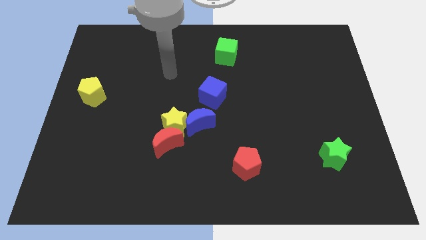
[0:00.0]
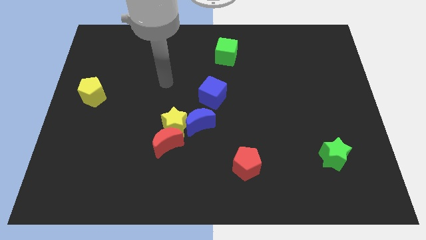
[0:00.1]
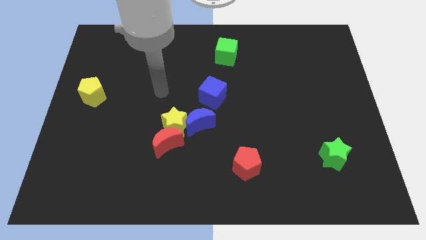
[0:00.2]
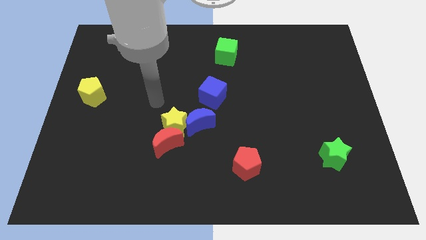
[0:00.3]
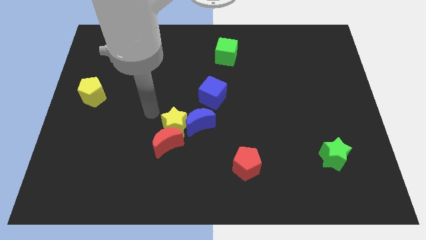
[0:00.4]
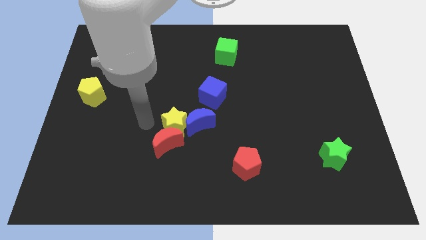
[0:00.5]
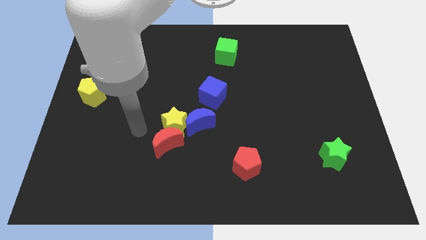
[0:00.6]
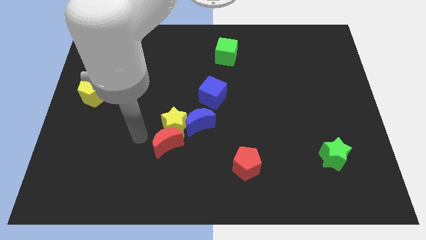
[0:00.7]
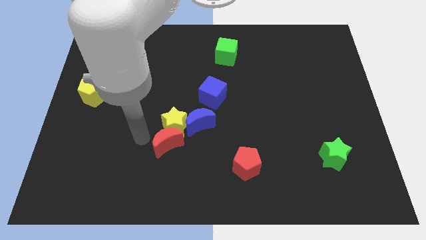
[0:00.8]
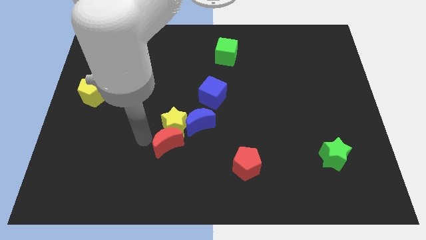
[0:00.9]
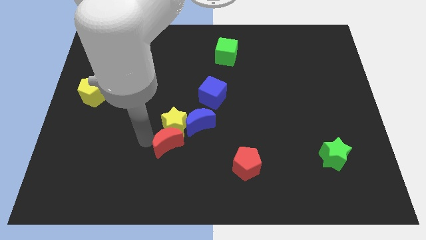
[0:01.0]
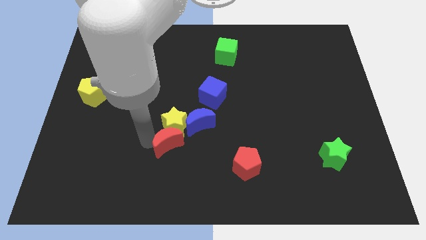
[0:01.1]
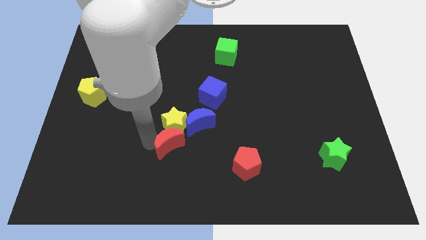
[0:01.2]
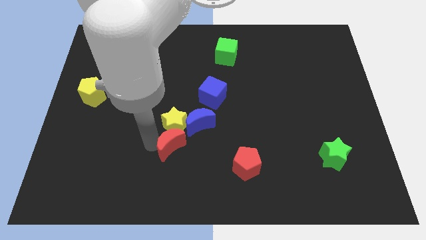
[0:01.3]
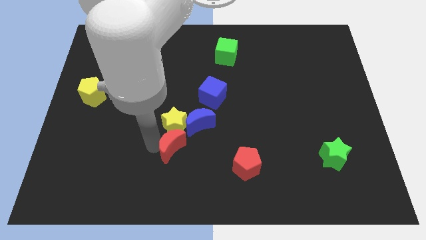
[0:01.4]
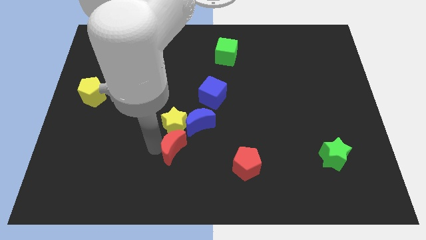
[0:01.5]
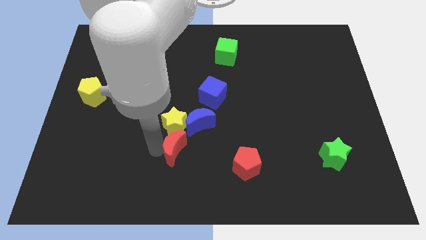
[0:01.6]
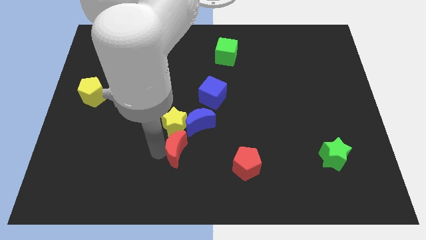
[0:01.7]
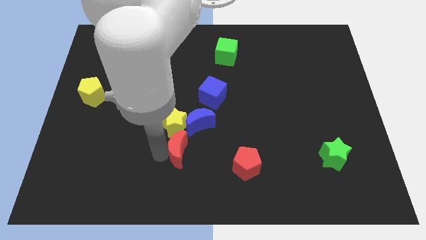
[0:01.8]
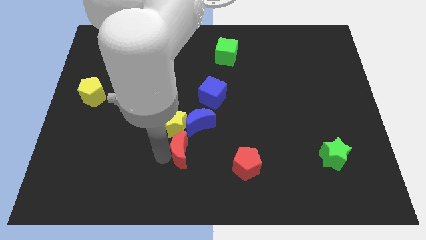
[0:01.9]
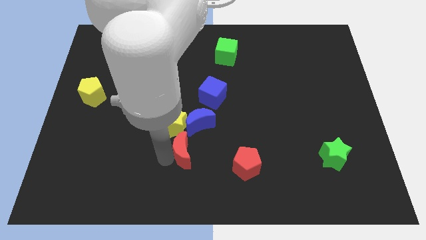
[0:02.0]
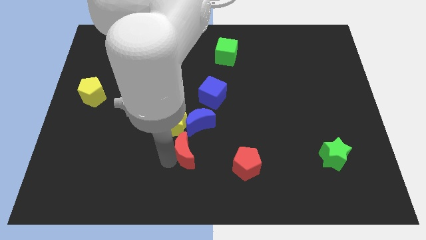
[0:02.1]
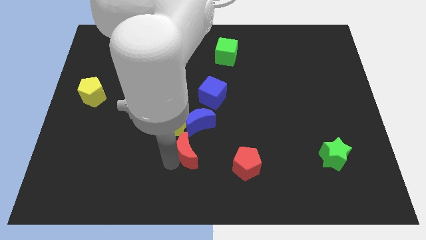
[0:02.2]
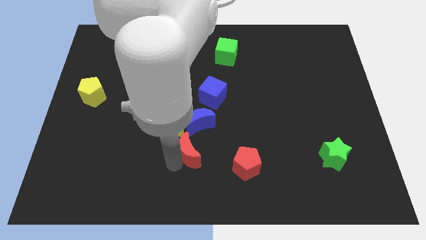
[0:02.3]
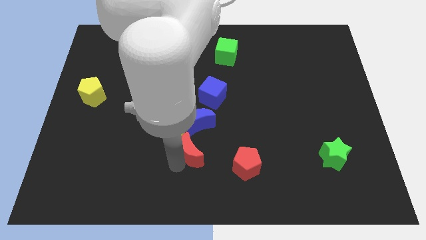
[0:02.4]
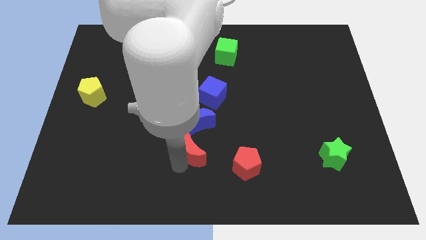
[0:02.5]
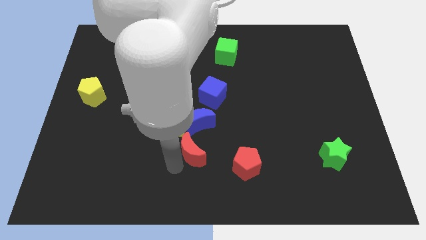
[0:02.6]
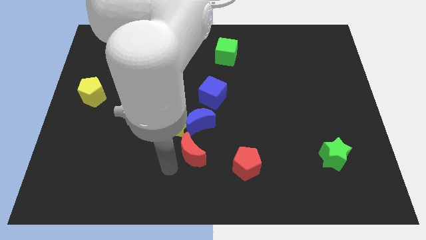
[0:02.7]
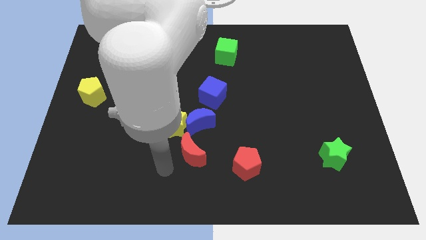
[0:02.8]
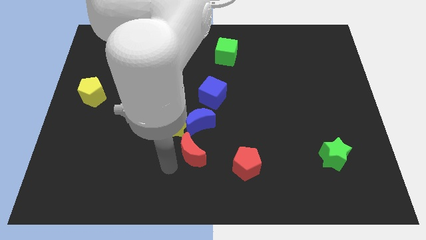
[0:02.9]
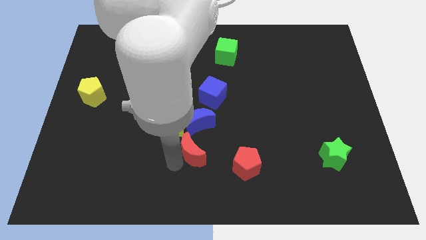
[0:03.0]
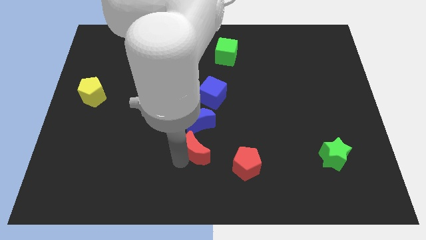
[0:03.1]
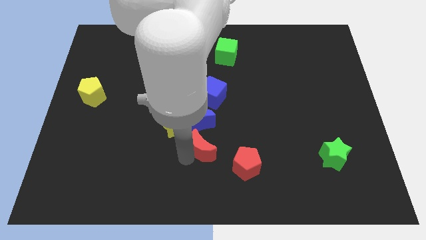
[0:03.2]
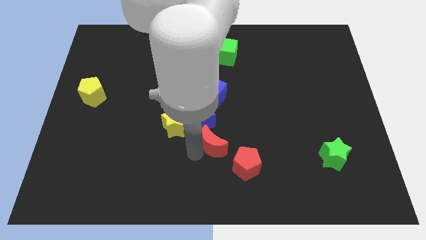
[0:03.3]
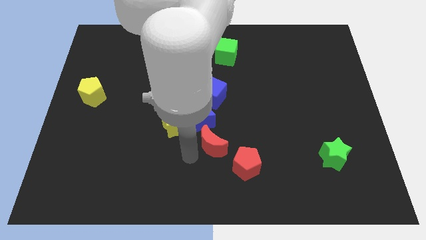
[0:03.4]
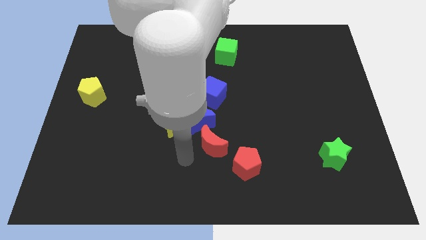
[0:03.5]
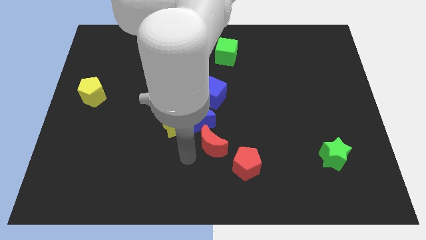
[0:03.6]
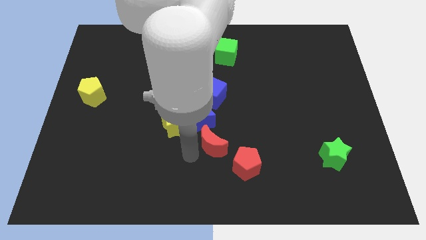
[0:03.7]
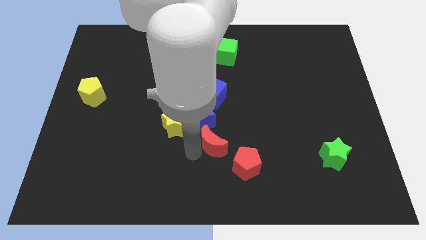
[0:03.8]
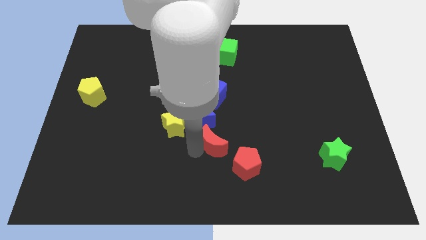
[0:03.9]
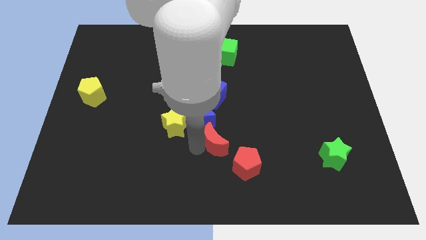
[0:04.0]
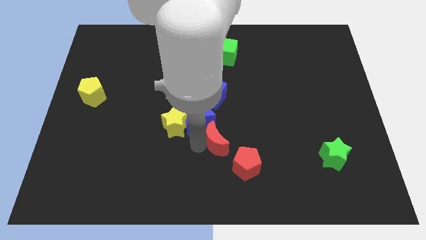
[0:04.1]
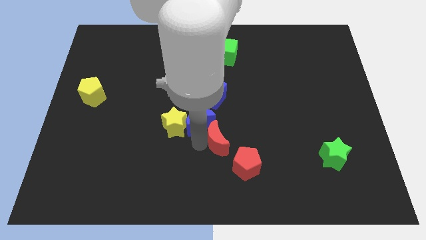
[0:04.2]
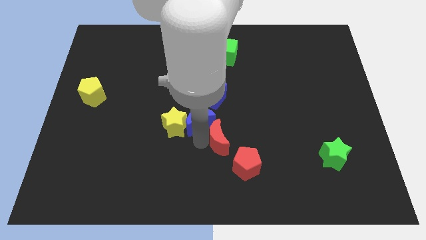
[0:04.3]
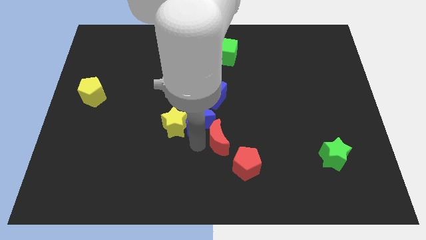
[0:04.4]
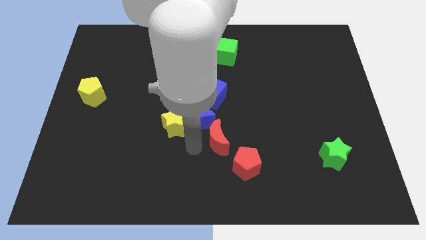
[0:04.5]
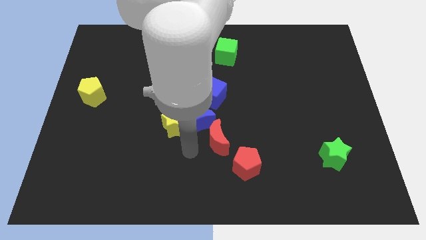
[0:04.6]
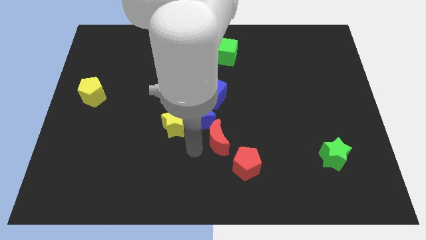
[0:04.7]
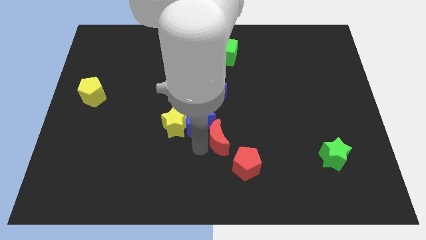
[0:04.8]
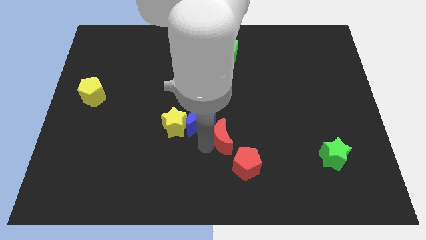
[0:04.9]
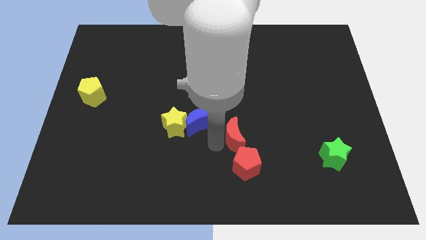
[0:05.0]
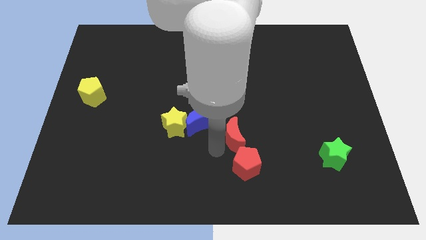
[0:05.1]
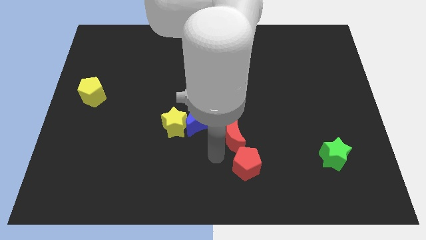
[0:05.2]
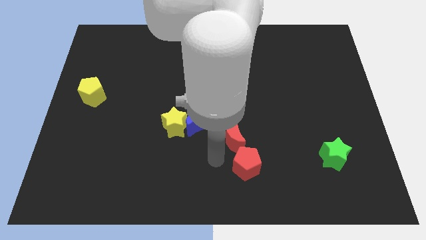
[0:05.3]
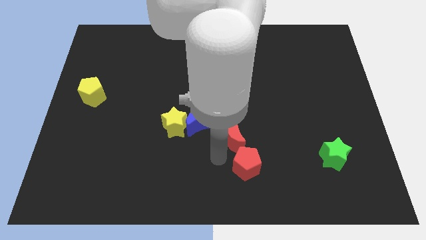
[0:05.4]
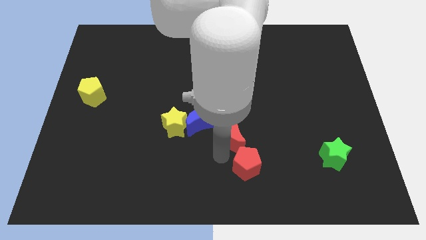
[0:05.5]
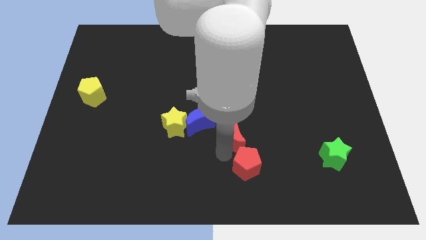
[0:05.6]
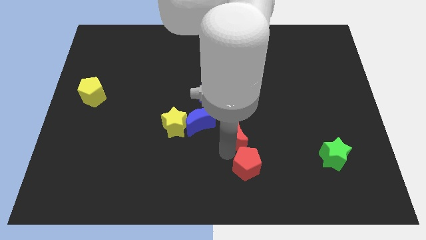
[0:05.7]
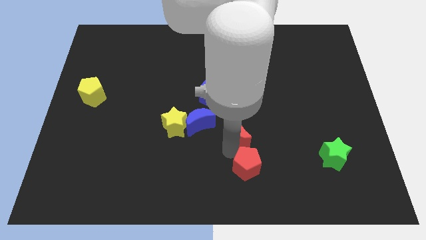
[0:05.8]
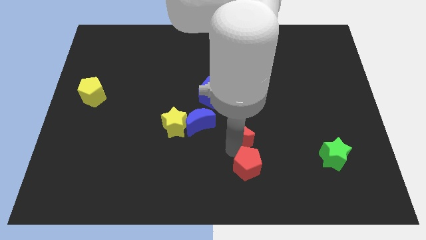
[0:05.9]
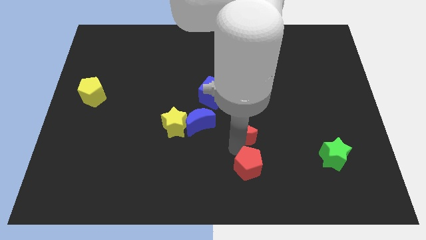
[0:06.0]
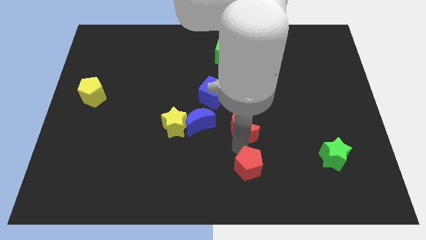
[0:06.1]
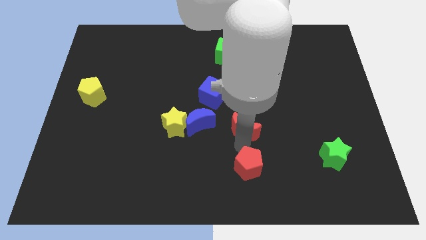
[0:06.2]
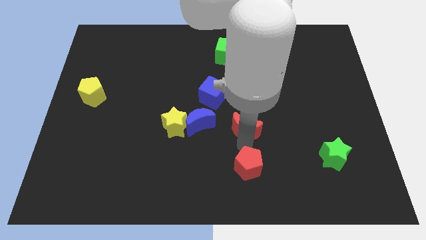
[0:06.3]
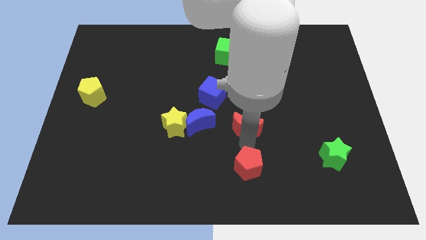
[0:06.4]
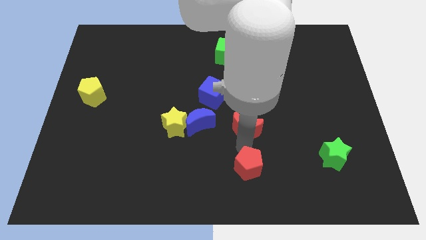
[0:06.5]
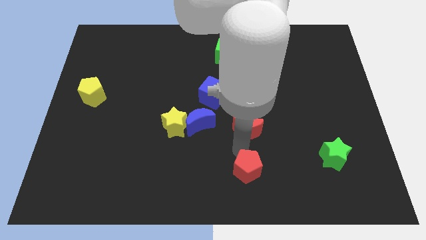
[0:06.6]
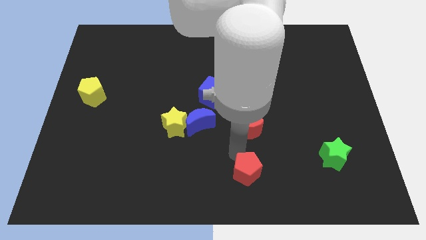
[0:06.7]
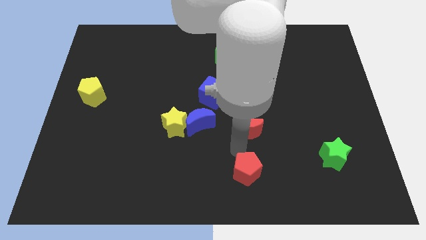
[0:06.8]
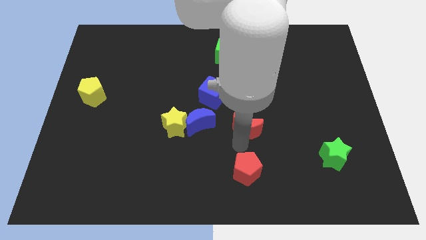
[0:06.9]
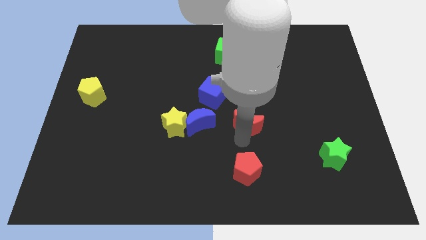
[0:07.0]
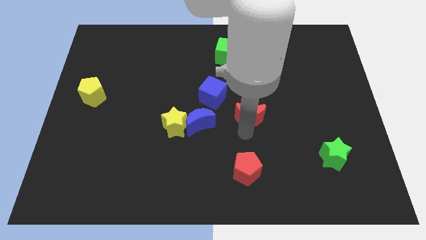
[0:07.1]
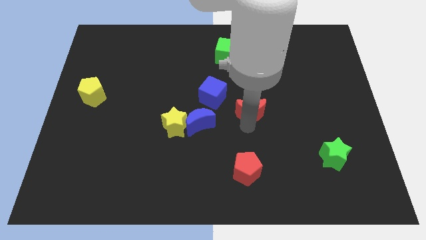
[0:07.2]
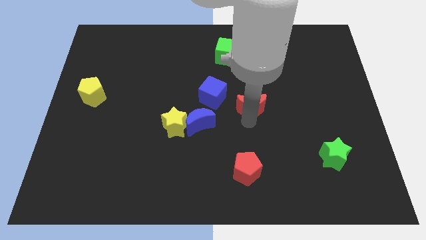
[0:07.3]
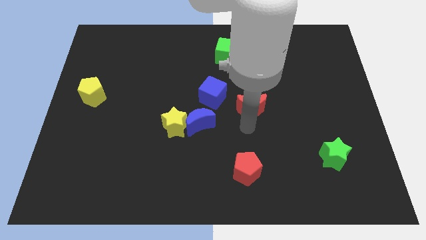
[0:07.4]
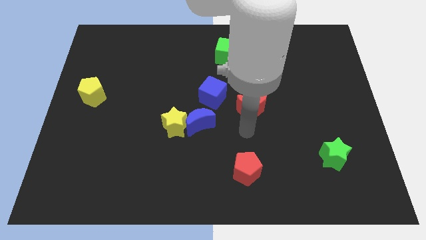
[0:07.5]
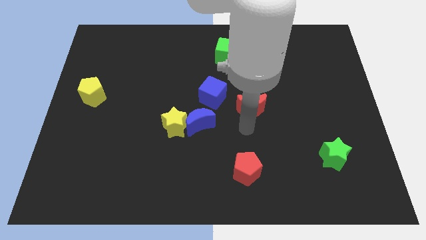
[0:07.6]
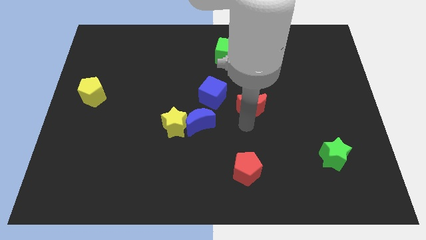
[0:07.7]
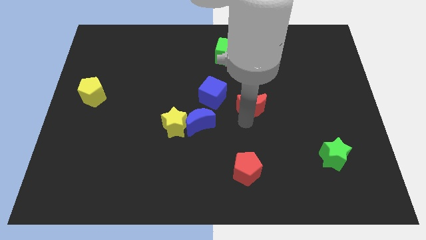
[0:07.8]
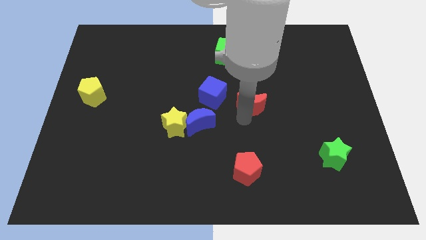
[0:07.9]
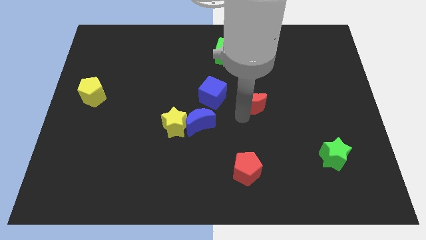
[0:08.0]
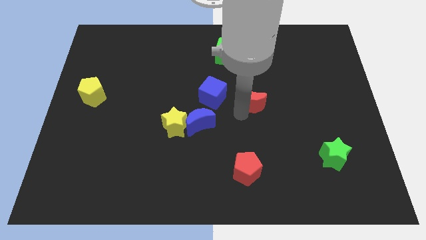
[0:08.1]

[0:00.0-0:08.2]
slide the red moon diagonally upwards and to the right
